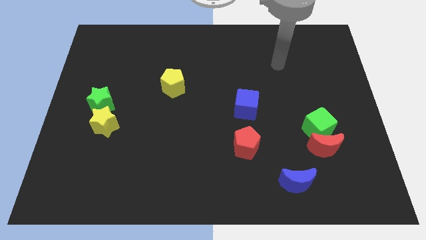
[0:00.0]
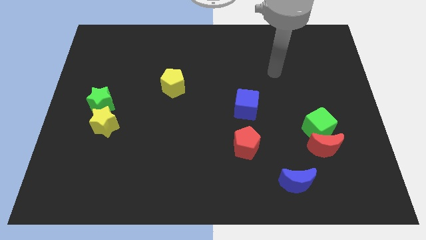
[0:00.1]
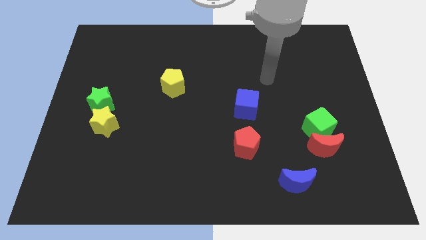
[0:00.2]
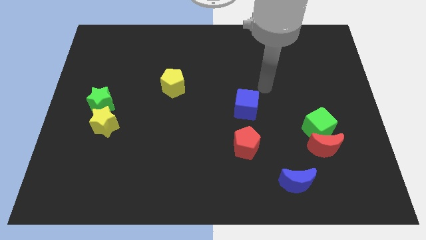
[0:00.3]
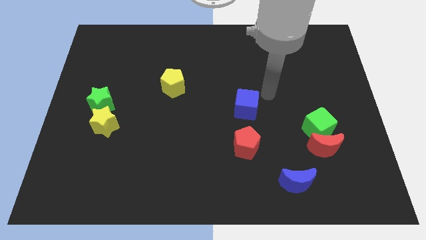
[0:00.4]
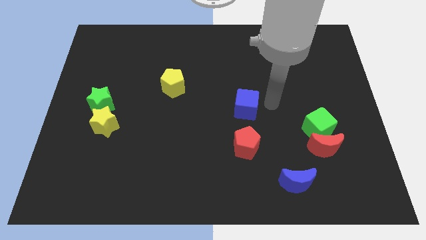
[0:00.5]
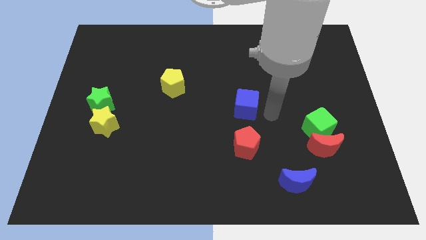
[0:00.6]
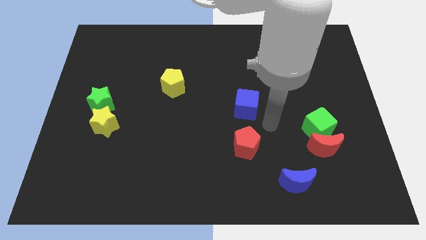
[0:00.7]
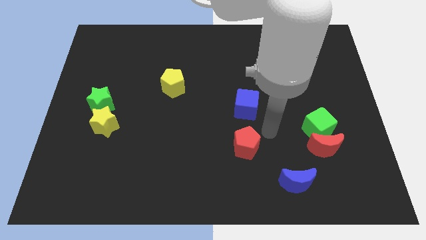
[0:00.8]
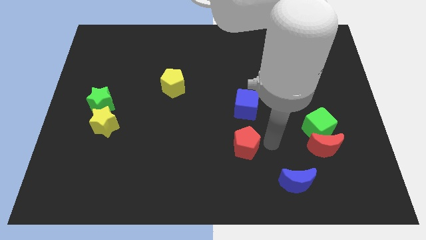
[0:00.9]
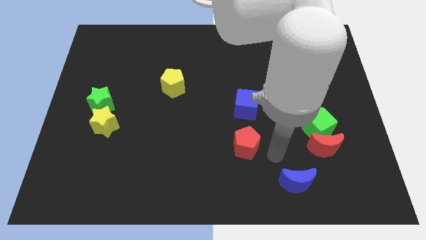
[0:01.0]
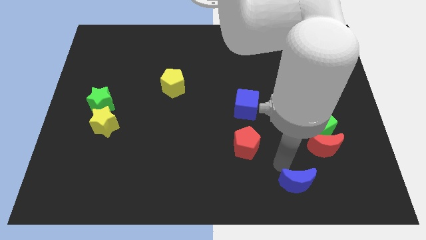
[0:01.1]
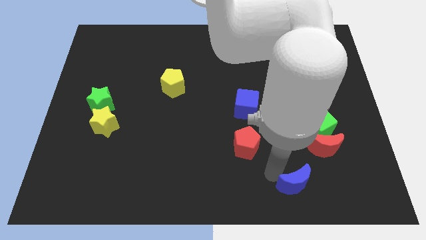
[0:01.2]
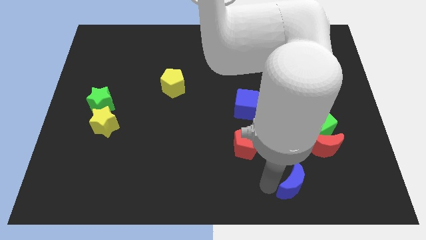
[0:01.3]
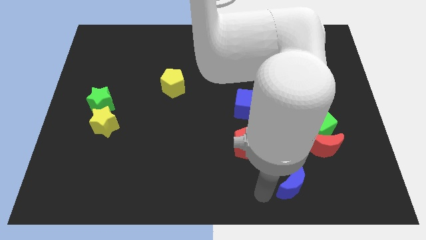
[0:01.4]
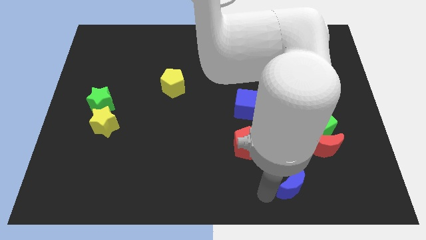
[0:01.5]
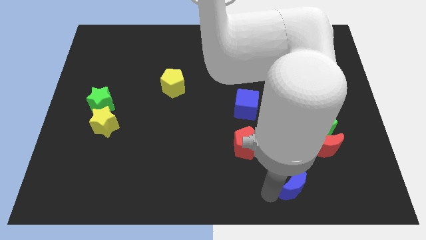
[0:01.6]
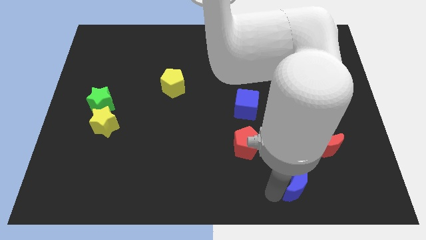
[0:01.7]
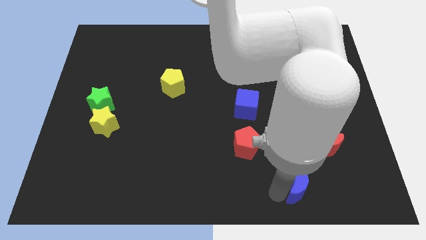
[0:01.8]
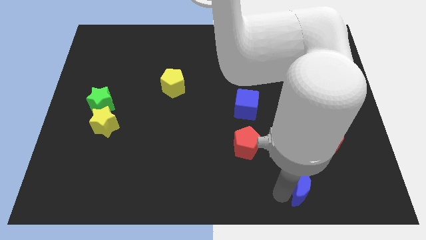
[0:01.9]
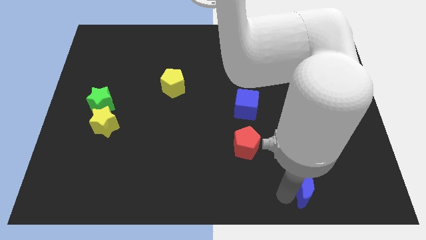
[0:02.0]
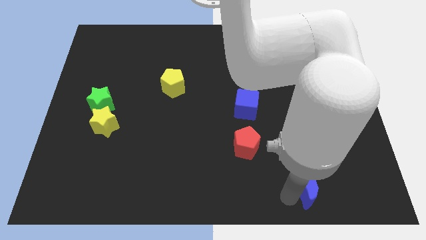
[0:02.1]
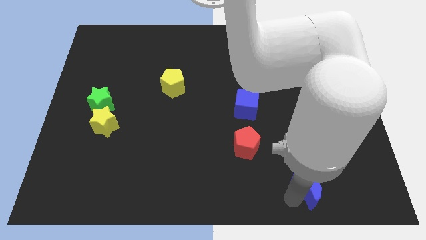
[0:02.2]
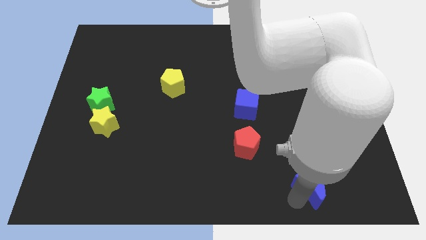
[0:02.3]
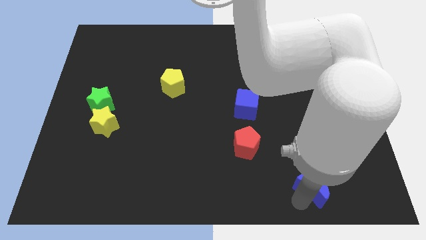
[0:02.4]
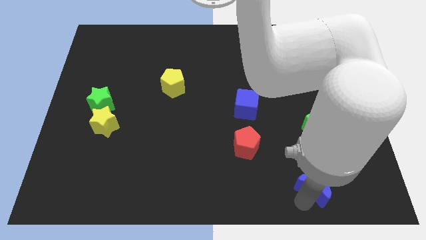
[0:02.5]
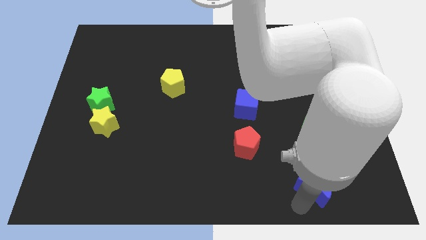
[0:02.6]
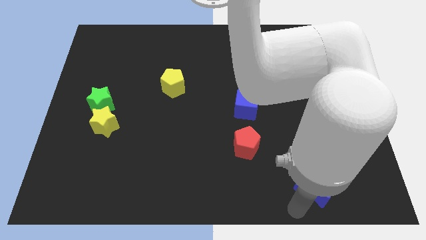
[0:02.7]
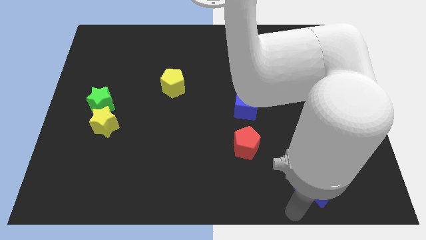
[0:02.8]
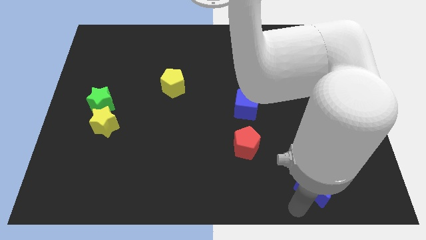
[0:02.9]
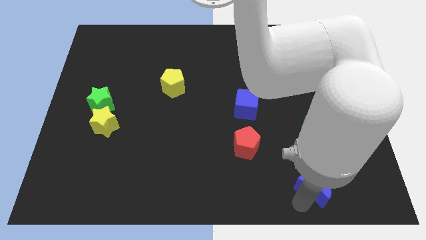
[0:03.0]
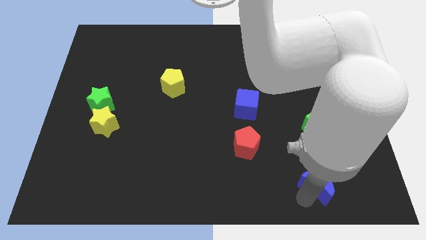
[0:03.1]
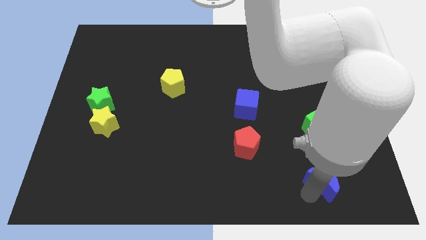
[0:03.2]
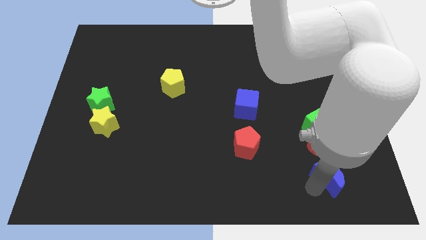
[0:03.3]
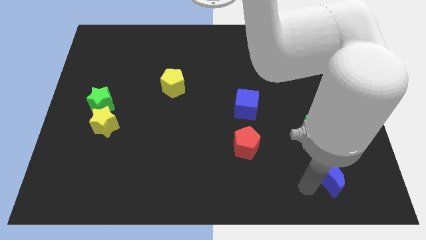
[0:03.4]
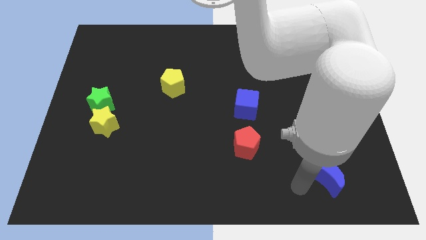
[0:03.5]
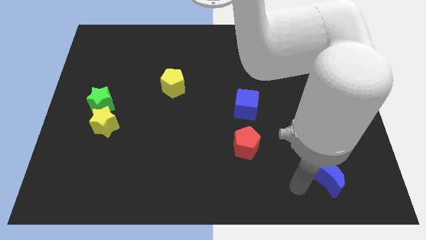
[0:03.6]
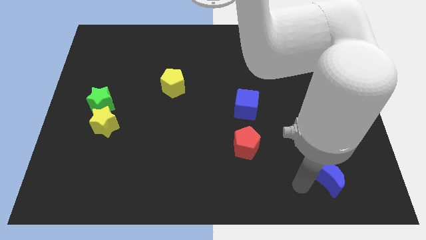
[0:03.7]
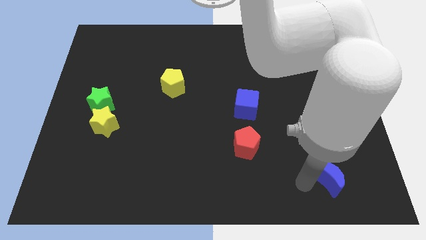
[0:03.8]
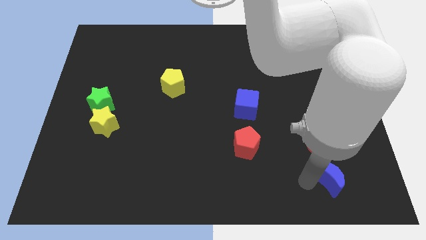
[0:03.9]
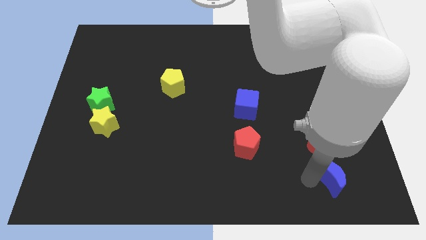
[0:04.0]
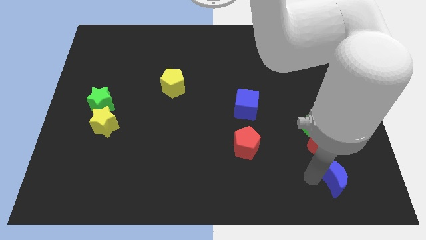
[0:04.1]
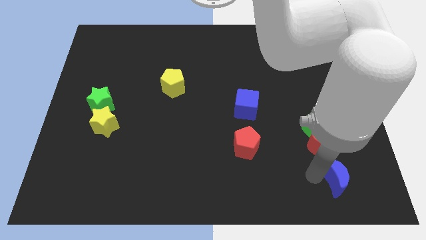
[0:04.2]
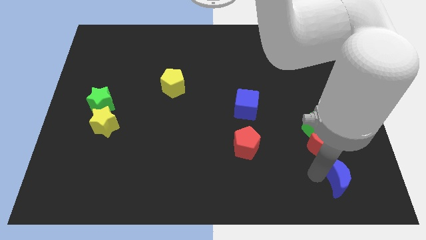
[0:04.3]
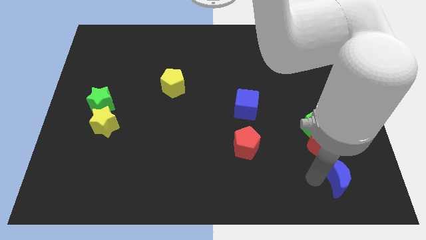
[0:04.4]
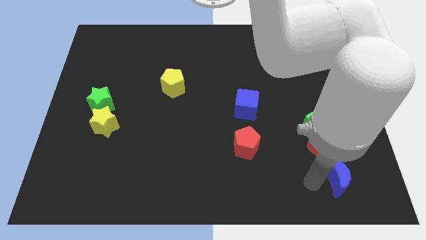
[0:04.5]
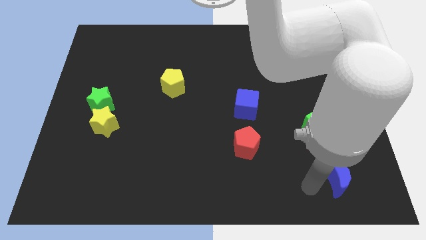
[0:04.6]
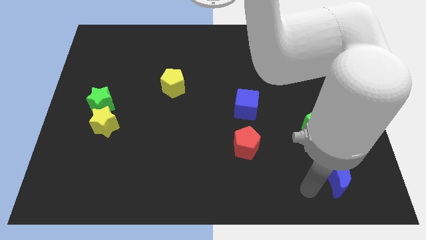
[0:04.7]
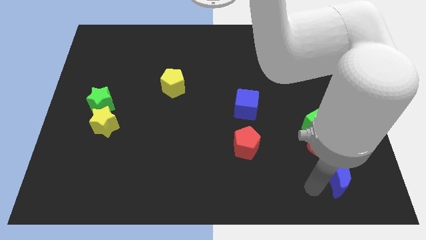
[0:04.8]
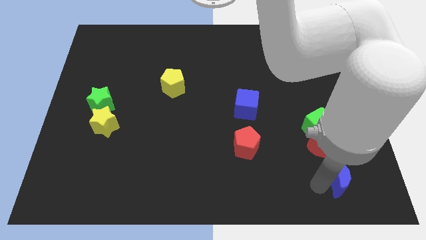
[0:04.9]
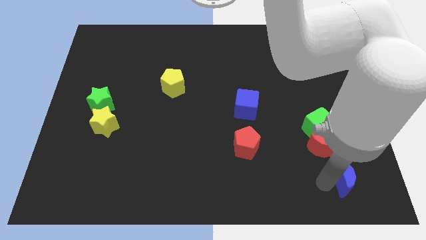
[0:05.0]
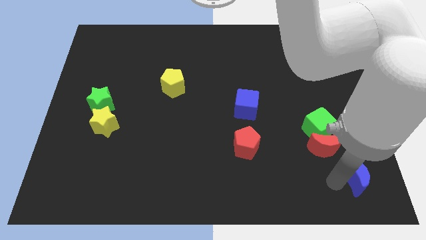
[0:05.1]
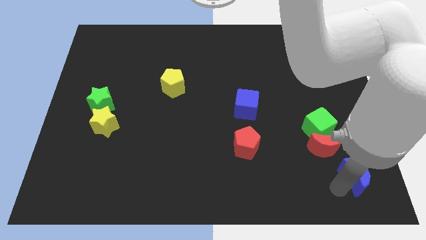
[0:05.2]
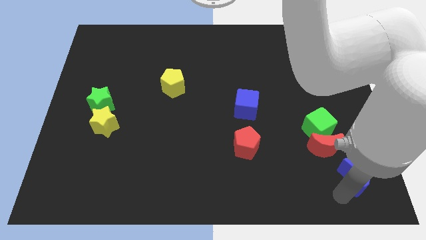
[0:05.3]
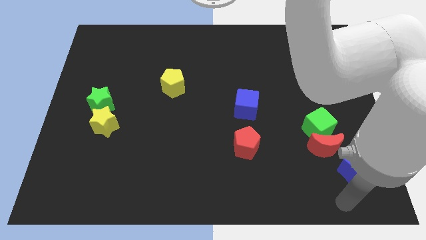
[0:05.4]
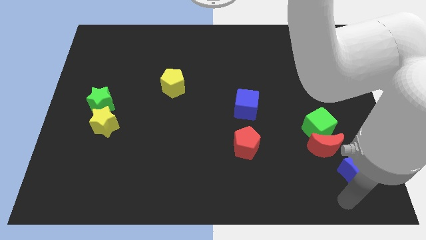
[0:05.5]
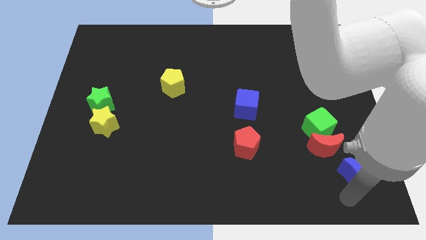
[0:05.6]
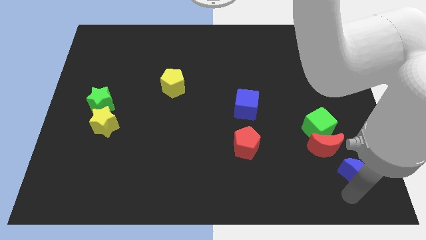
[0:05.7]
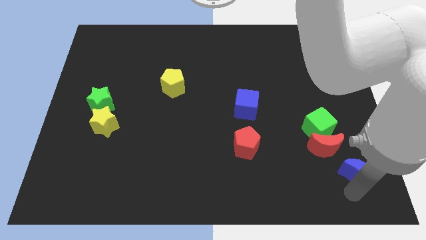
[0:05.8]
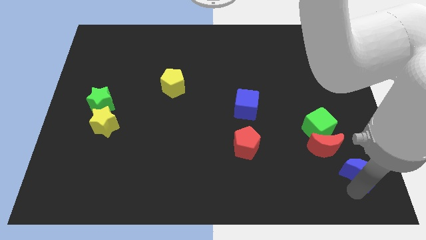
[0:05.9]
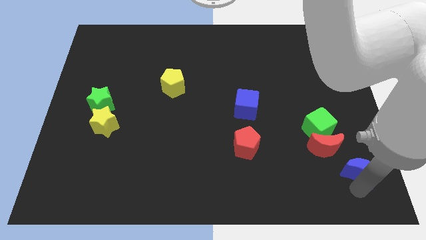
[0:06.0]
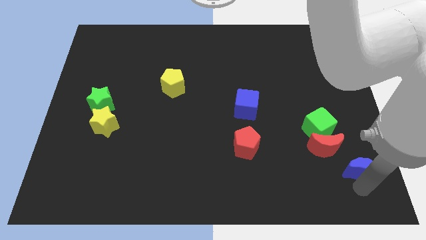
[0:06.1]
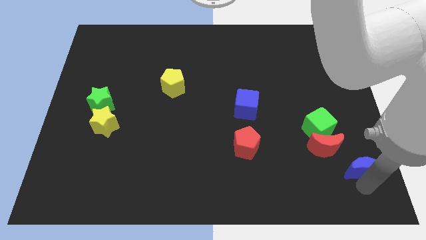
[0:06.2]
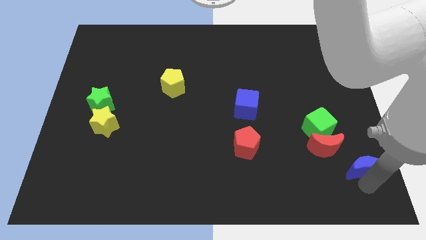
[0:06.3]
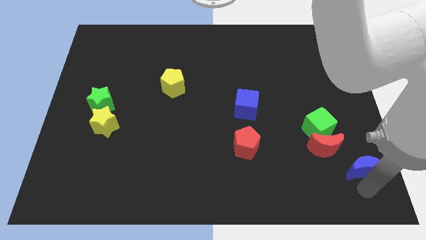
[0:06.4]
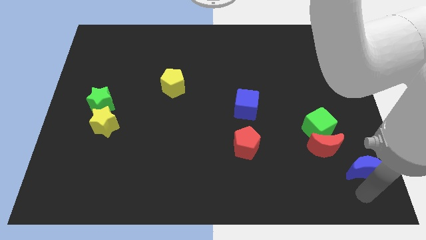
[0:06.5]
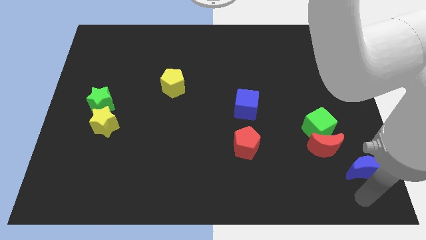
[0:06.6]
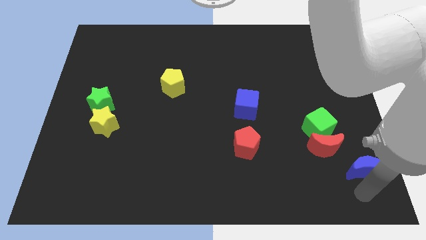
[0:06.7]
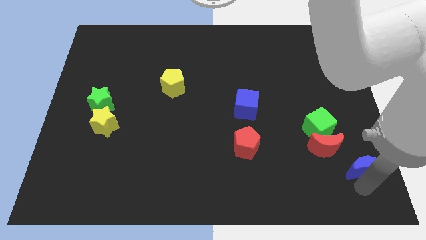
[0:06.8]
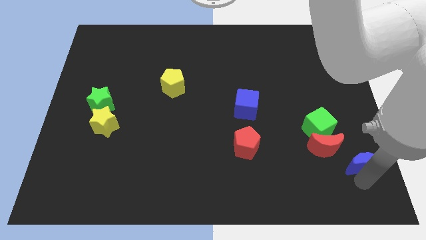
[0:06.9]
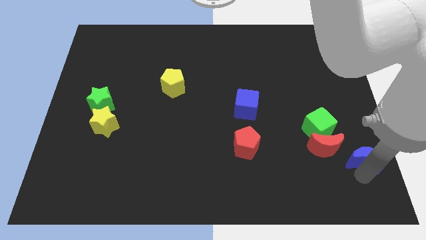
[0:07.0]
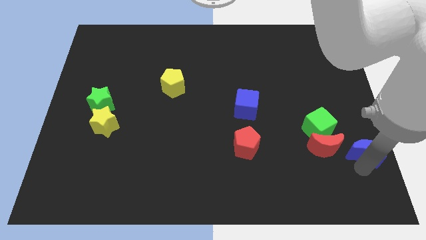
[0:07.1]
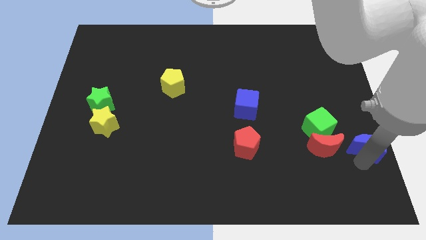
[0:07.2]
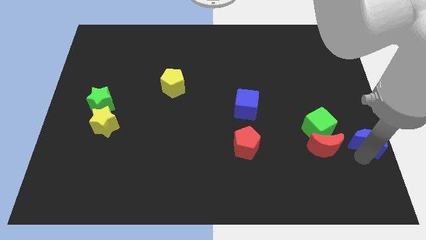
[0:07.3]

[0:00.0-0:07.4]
slide the blue moon to the right side of the board
